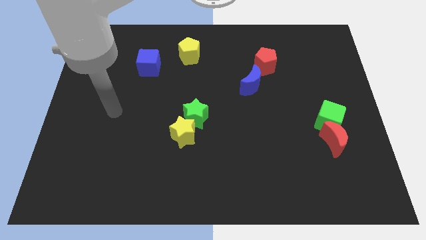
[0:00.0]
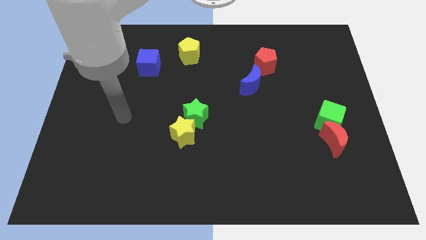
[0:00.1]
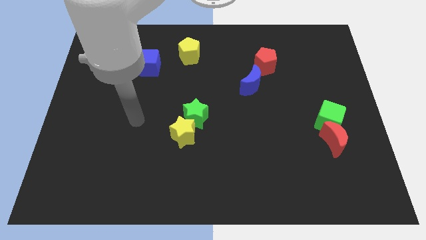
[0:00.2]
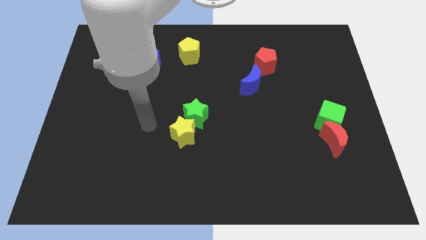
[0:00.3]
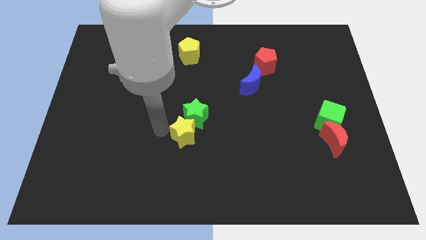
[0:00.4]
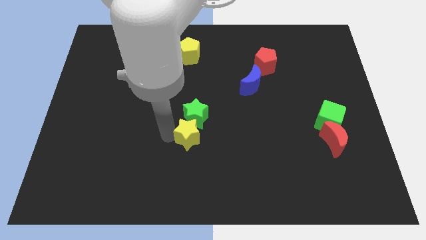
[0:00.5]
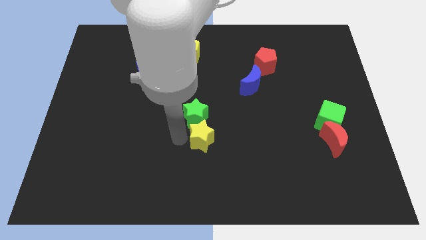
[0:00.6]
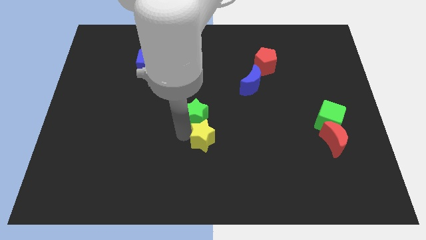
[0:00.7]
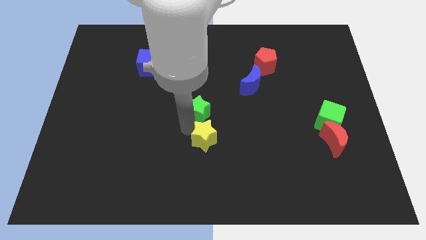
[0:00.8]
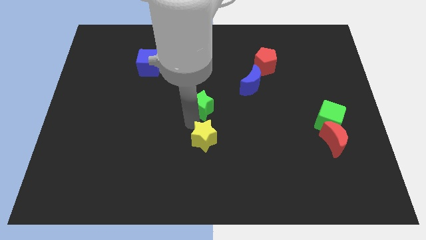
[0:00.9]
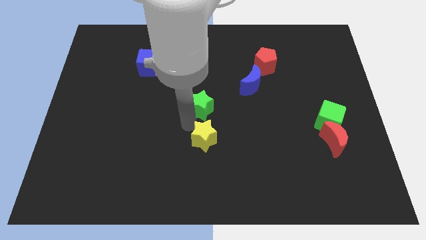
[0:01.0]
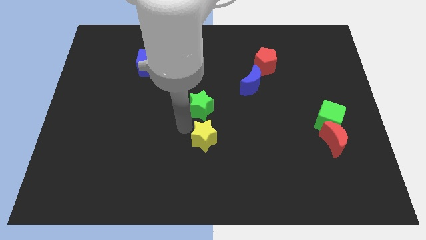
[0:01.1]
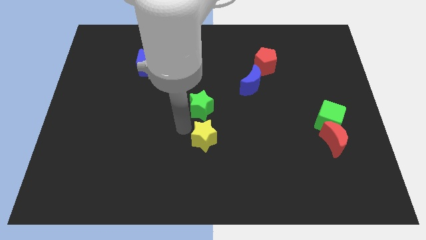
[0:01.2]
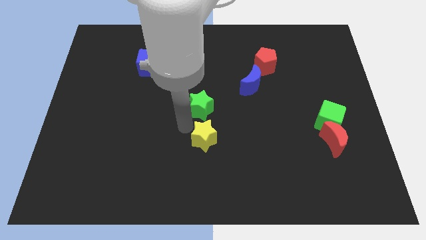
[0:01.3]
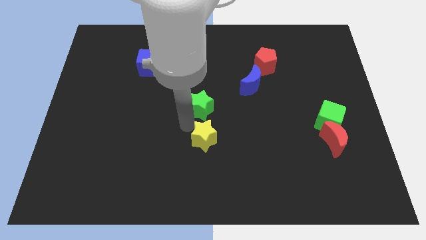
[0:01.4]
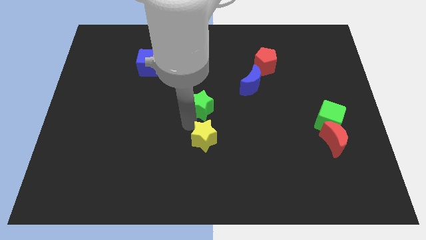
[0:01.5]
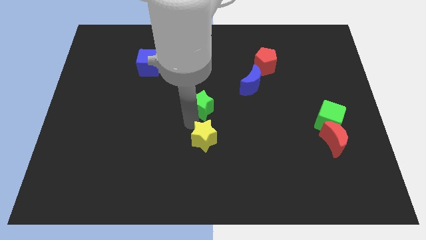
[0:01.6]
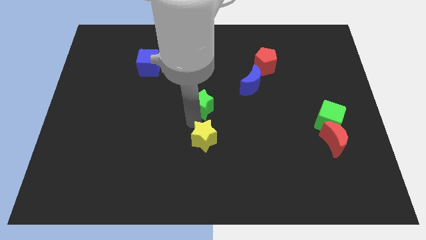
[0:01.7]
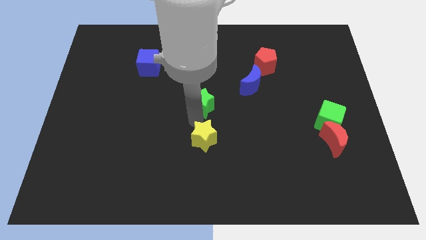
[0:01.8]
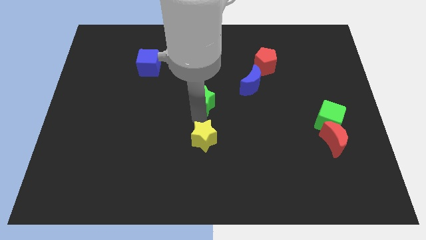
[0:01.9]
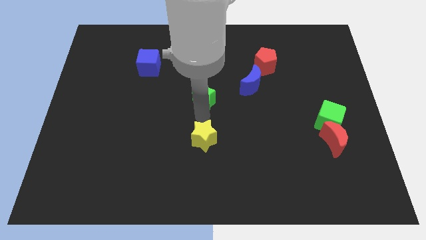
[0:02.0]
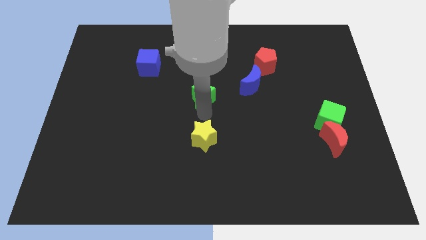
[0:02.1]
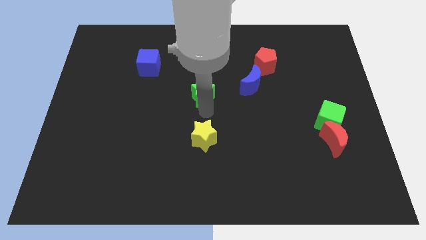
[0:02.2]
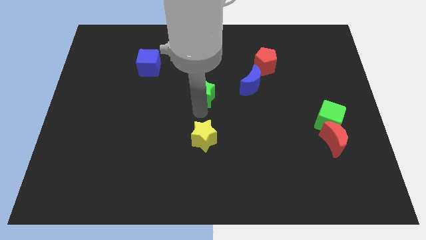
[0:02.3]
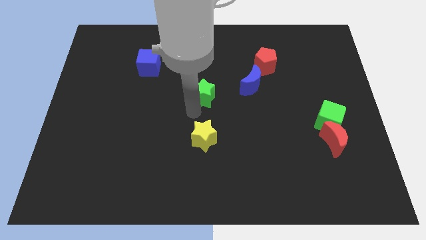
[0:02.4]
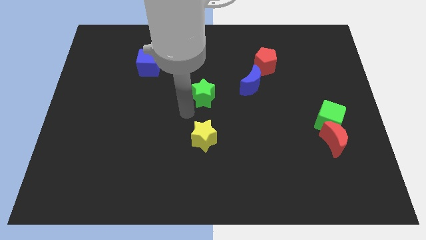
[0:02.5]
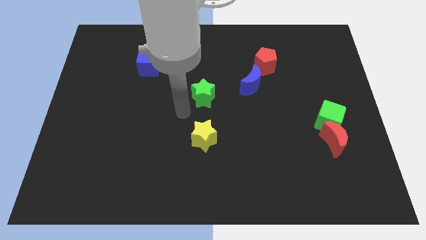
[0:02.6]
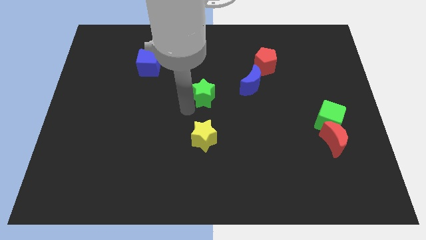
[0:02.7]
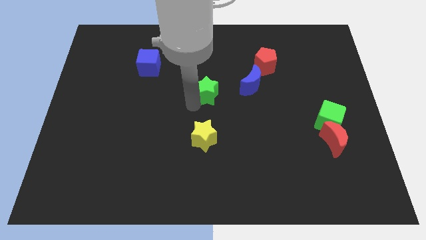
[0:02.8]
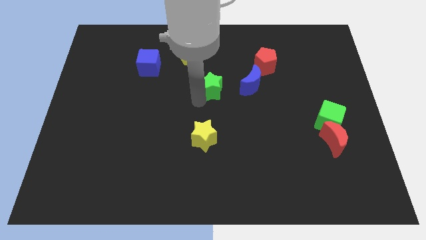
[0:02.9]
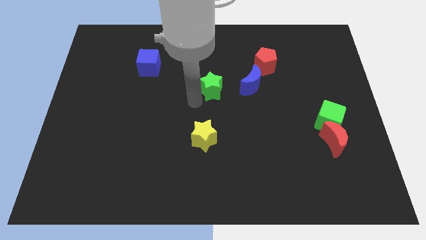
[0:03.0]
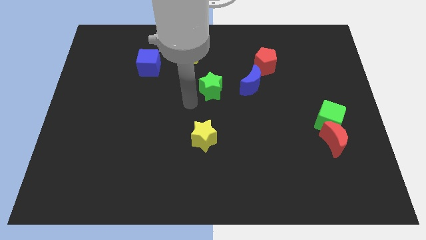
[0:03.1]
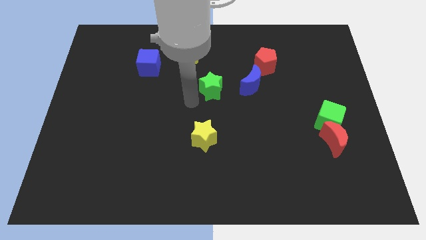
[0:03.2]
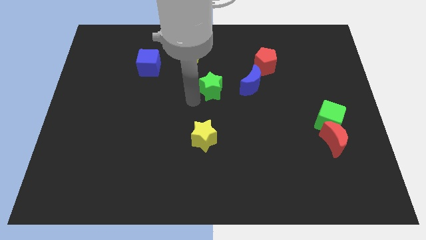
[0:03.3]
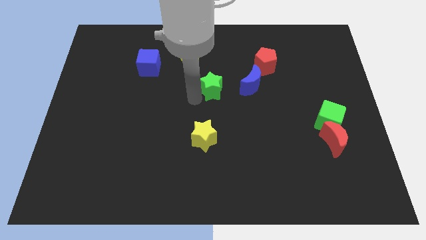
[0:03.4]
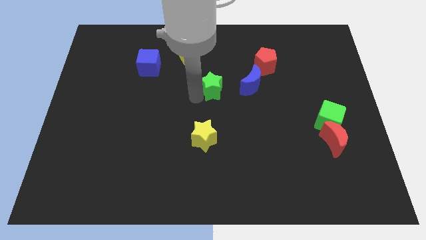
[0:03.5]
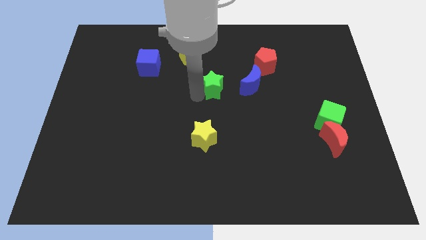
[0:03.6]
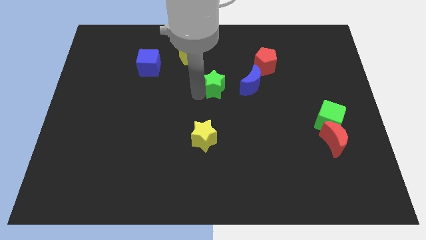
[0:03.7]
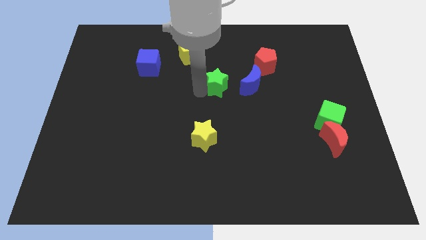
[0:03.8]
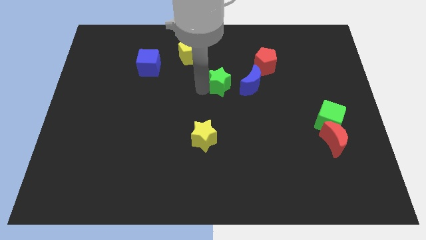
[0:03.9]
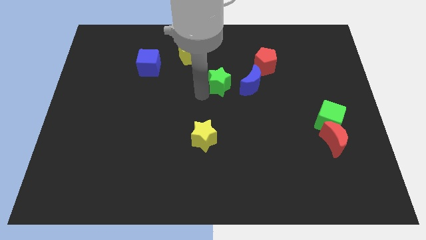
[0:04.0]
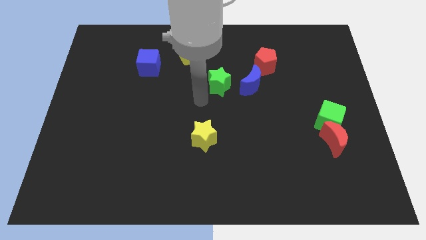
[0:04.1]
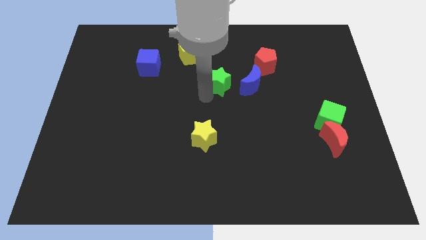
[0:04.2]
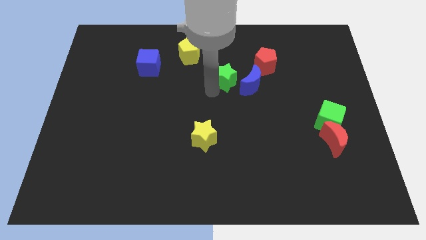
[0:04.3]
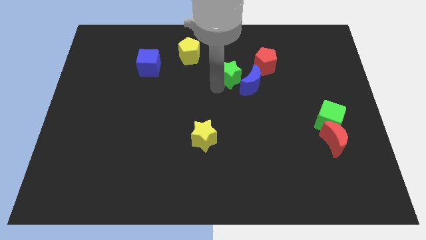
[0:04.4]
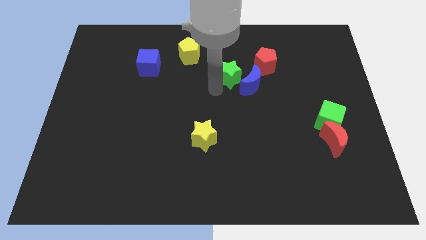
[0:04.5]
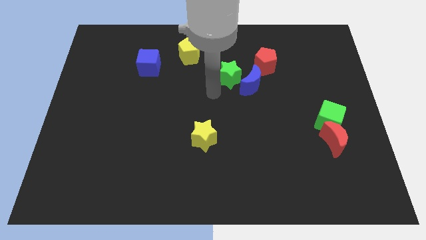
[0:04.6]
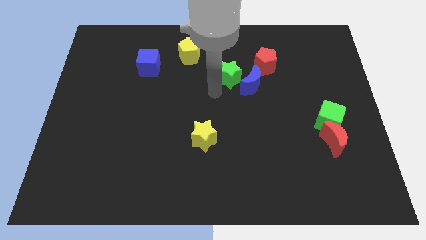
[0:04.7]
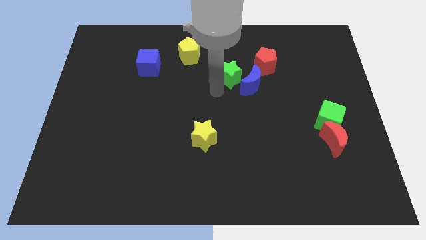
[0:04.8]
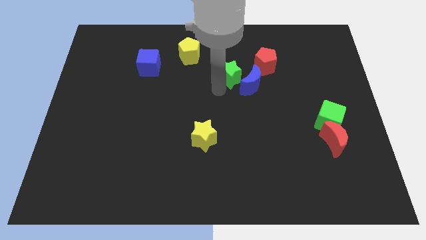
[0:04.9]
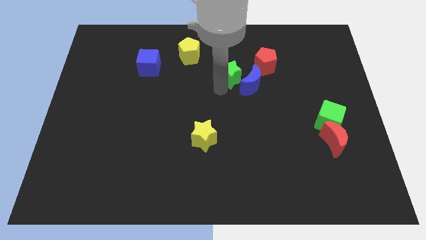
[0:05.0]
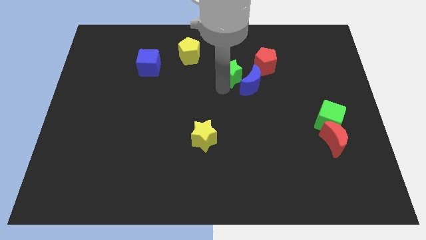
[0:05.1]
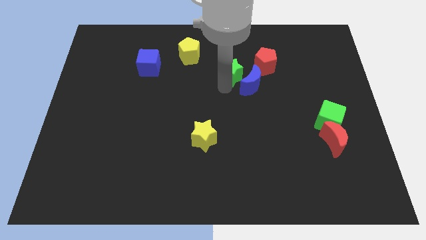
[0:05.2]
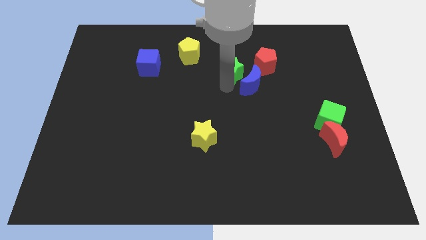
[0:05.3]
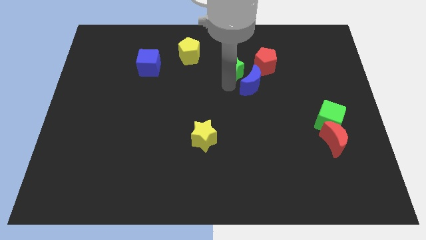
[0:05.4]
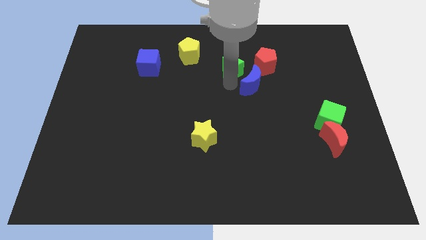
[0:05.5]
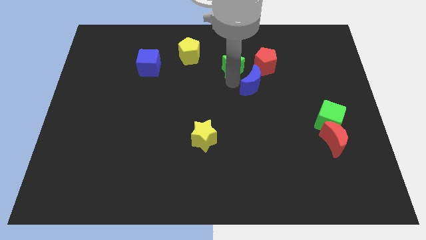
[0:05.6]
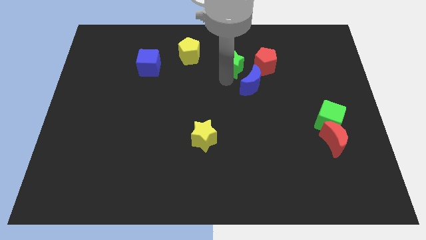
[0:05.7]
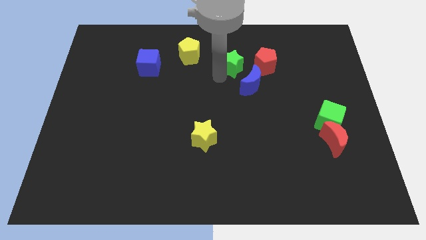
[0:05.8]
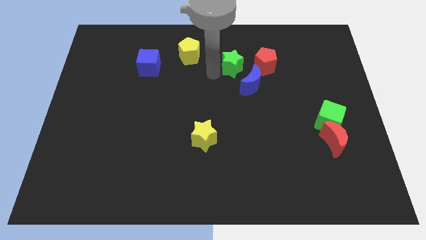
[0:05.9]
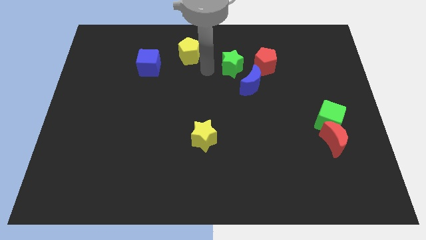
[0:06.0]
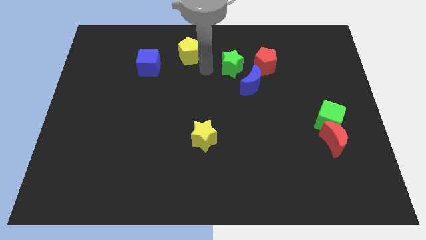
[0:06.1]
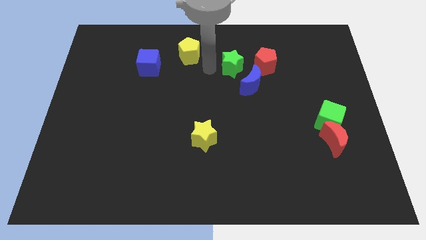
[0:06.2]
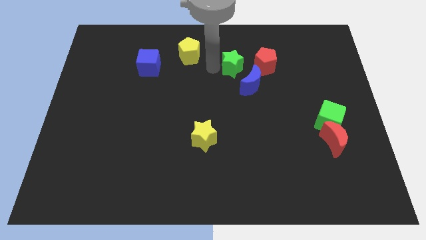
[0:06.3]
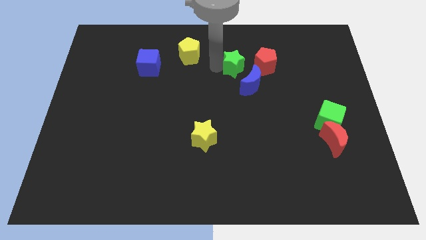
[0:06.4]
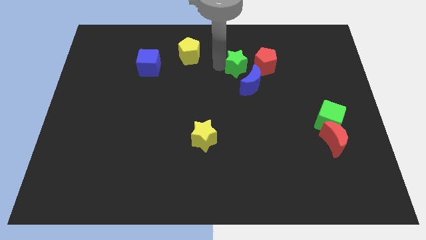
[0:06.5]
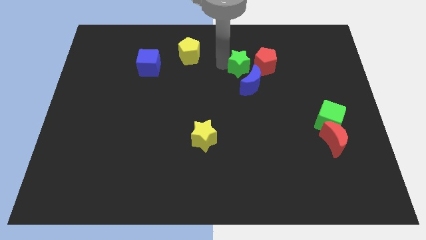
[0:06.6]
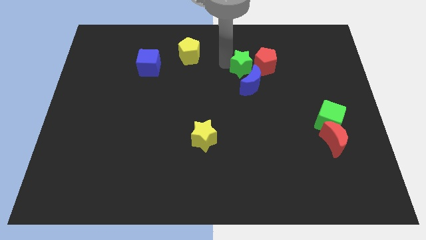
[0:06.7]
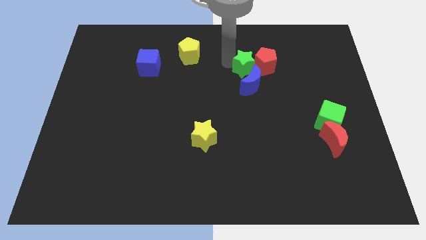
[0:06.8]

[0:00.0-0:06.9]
put the green star towards the red pentagon
